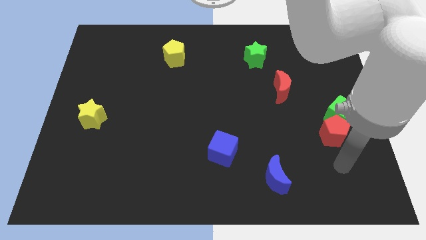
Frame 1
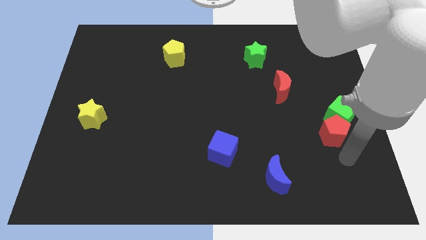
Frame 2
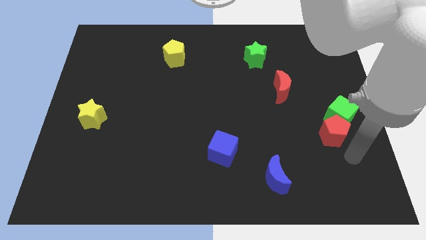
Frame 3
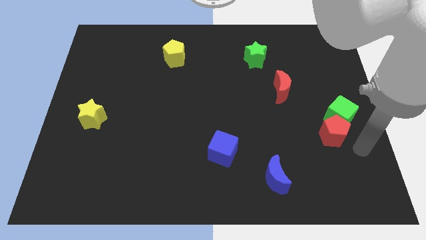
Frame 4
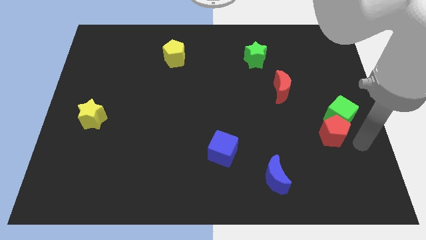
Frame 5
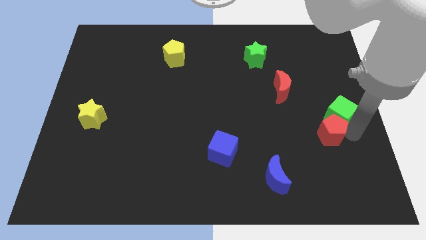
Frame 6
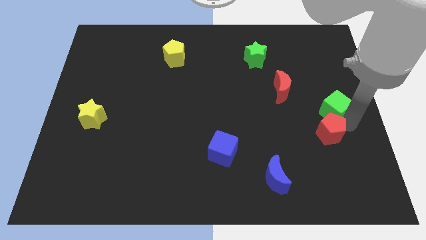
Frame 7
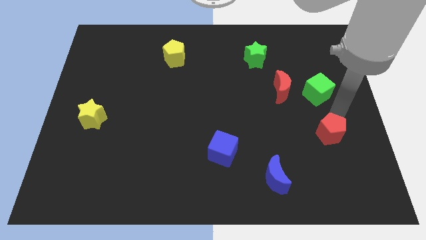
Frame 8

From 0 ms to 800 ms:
pull the red pentagon apart from the green cube

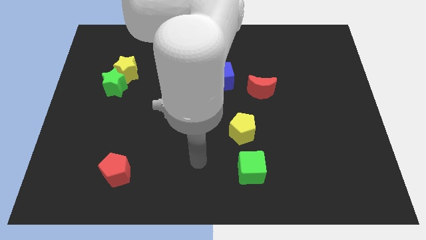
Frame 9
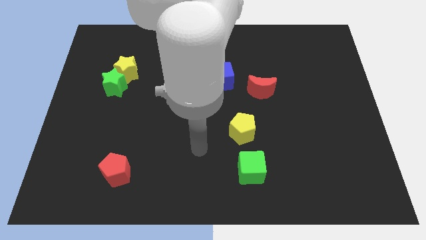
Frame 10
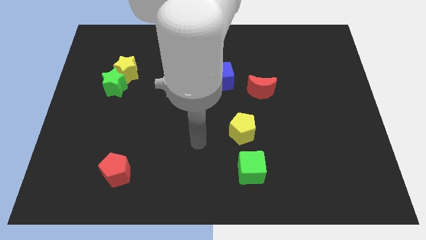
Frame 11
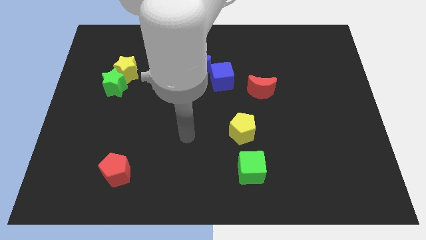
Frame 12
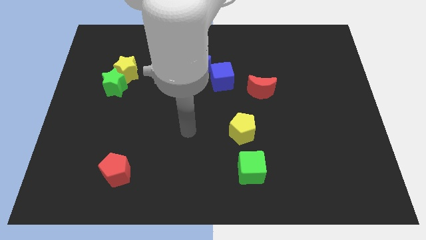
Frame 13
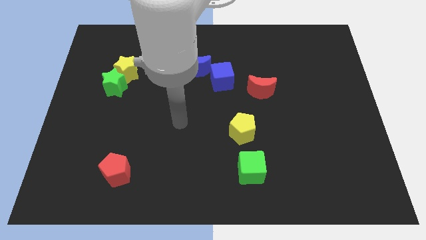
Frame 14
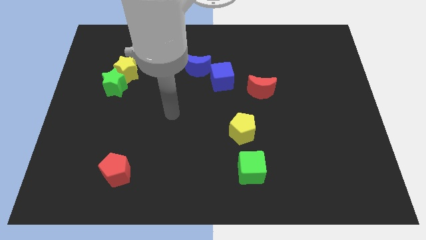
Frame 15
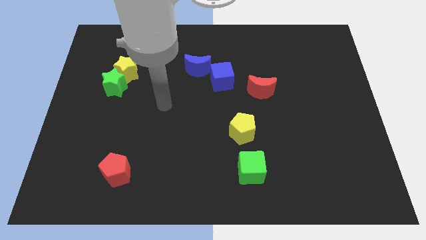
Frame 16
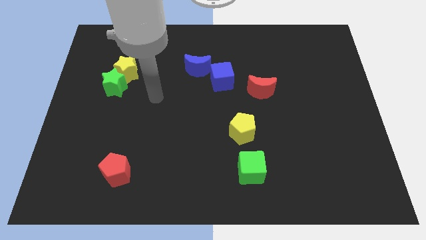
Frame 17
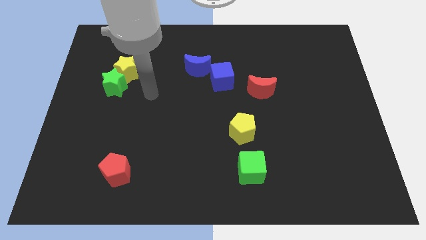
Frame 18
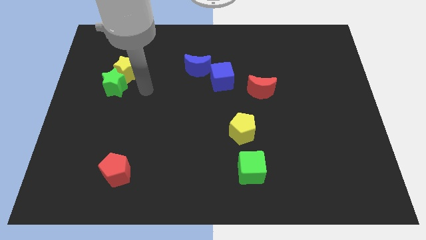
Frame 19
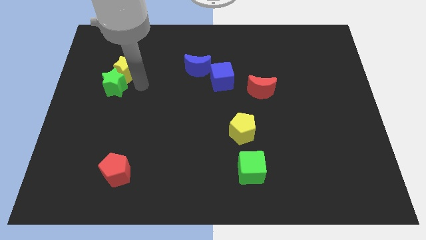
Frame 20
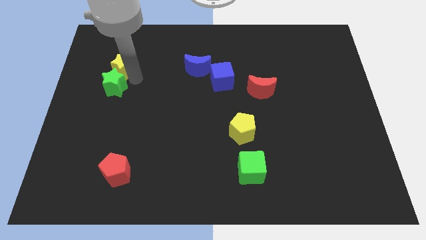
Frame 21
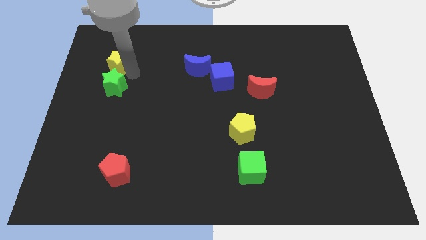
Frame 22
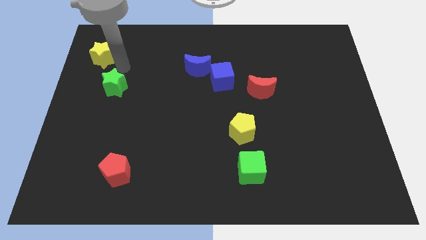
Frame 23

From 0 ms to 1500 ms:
separate the green star from the yellow star

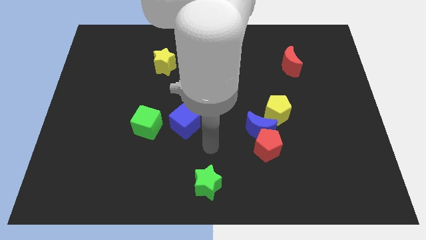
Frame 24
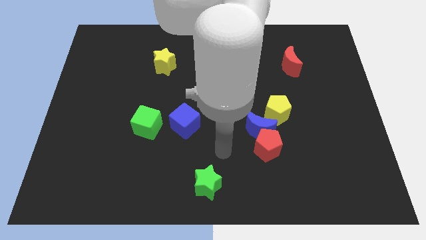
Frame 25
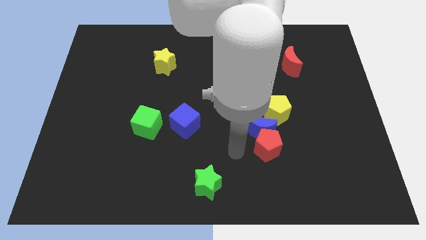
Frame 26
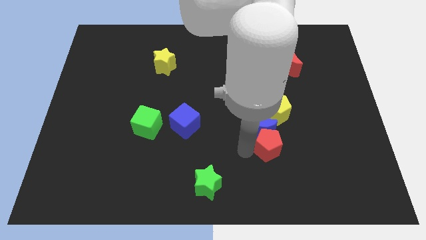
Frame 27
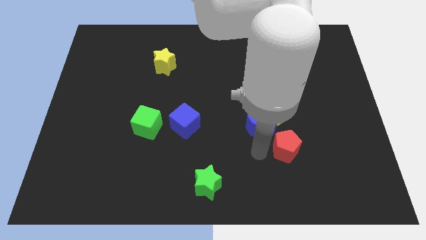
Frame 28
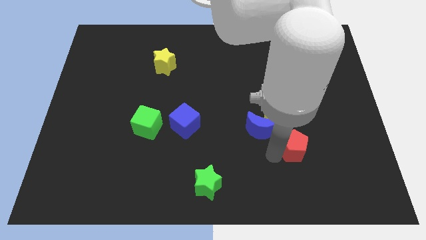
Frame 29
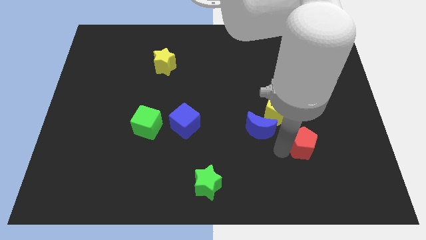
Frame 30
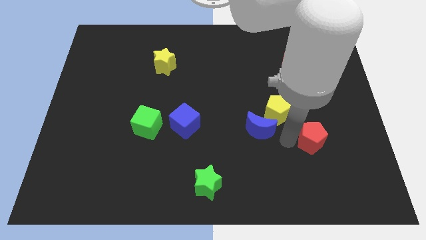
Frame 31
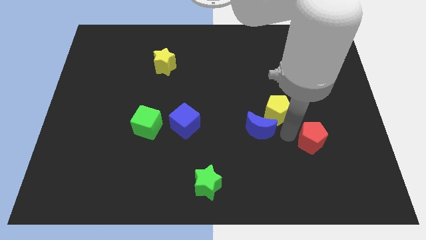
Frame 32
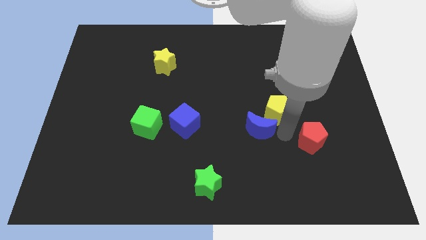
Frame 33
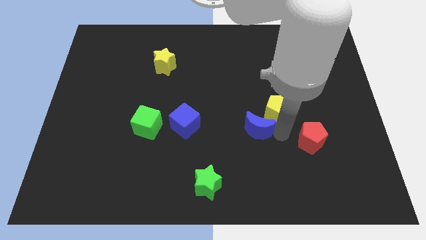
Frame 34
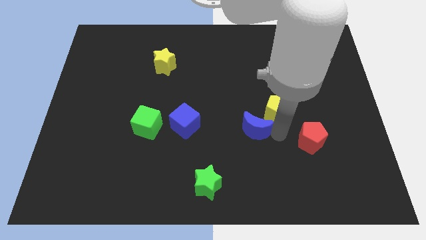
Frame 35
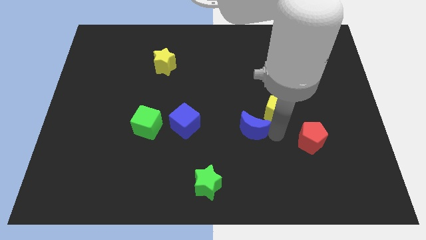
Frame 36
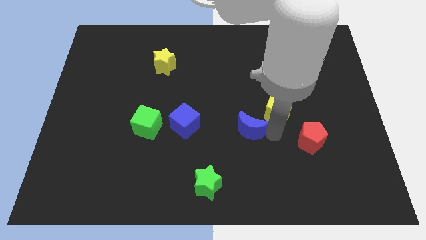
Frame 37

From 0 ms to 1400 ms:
pull the blue moon apart from the red pentagon and yellow pentagon

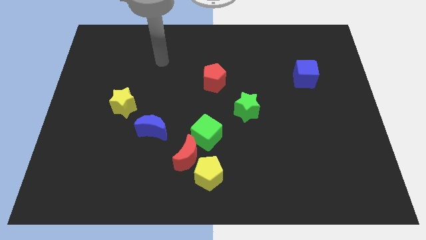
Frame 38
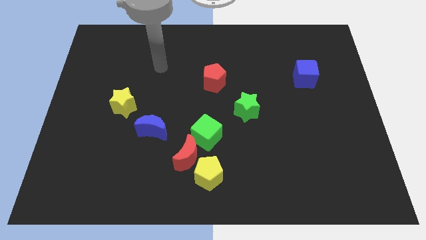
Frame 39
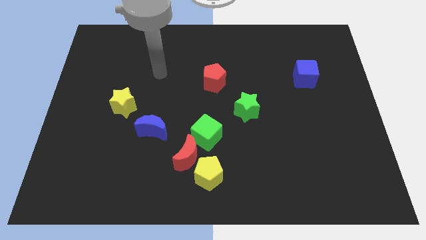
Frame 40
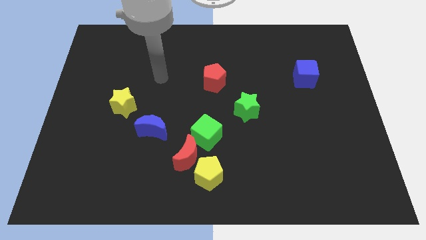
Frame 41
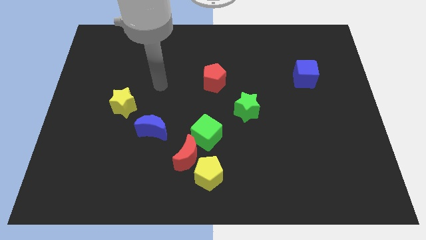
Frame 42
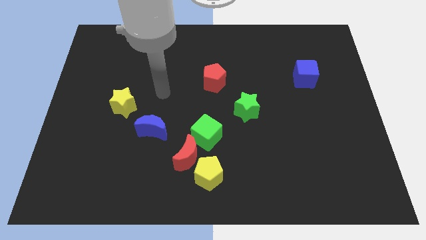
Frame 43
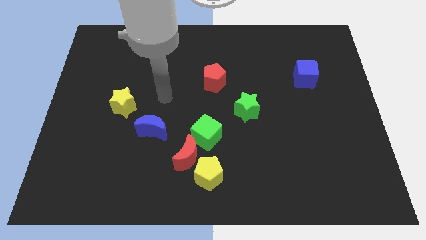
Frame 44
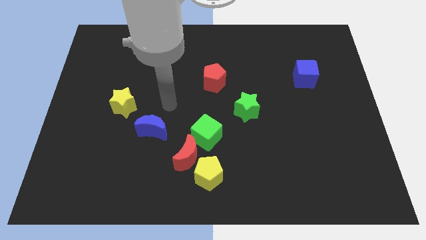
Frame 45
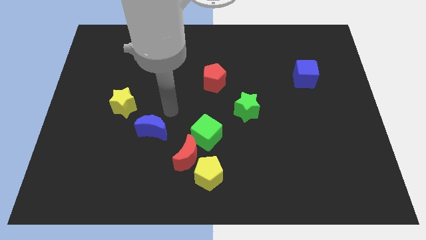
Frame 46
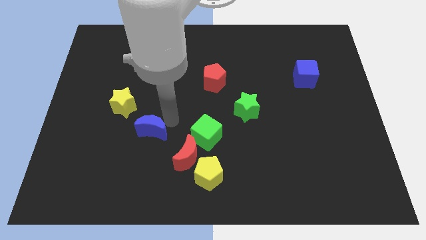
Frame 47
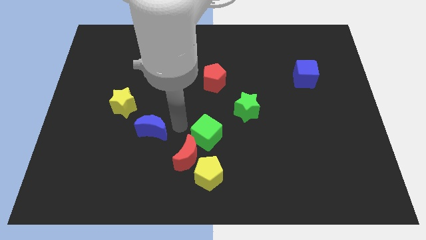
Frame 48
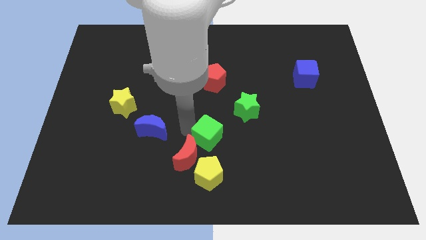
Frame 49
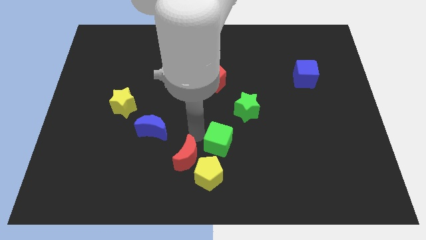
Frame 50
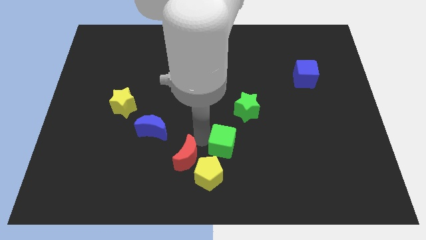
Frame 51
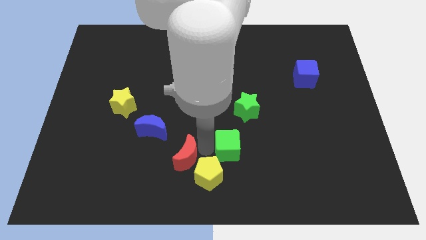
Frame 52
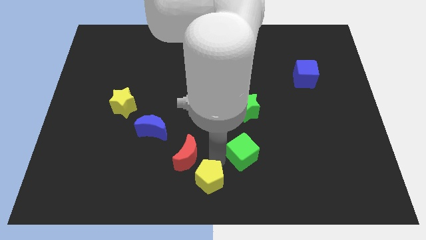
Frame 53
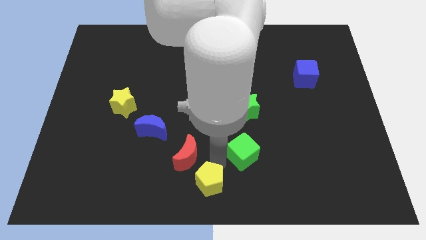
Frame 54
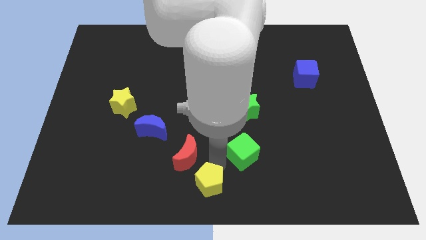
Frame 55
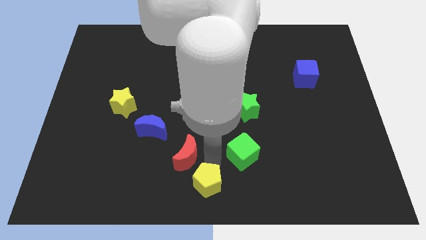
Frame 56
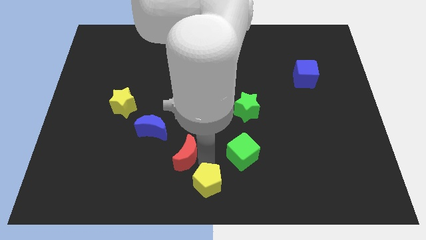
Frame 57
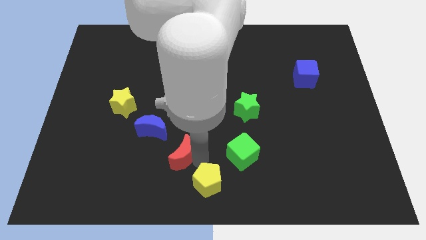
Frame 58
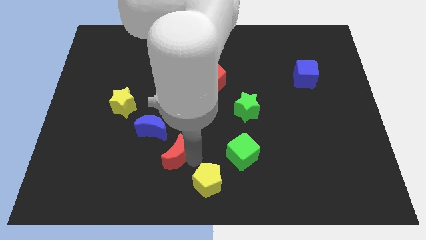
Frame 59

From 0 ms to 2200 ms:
separate the red moon from the yellow pentagon and green cube

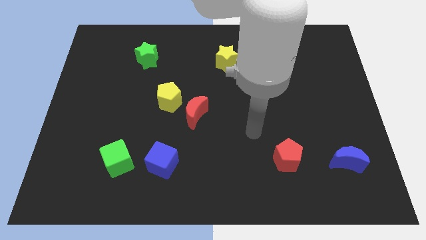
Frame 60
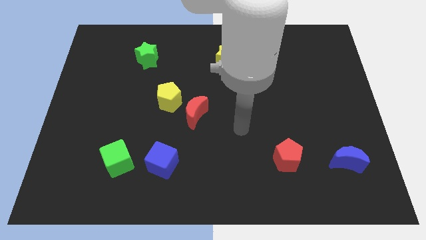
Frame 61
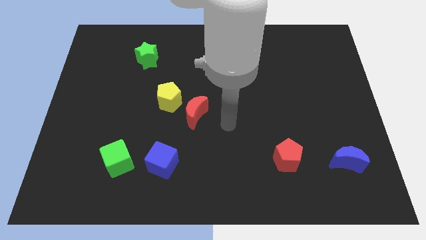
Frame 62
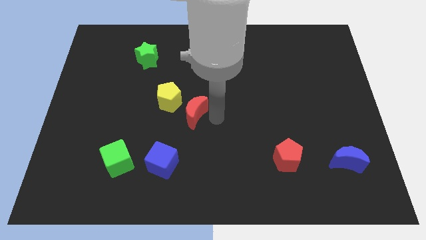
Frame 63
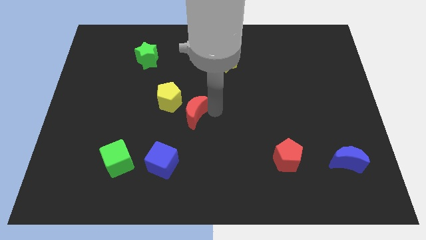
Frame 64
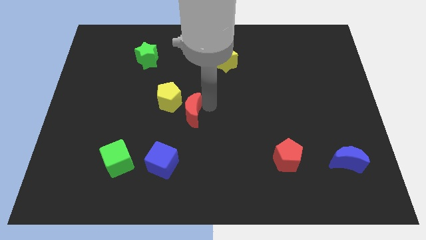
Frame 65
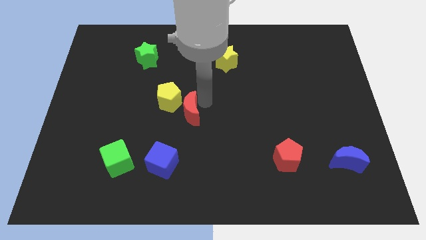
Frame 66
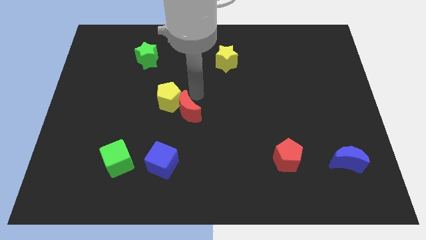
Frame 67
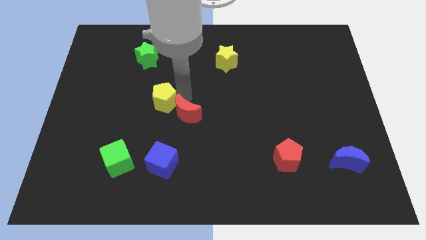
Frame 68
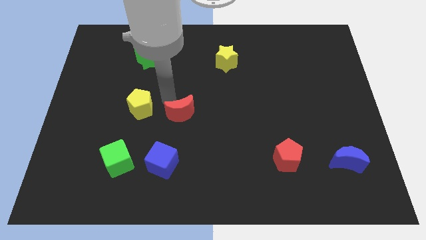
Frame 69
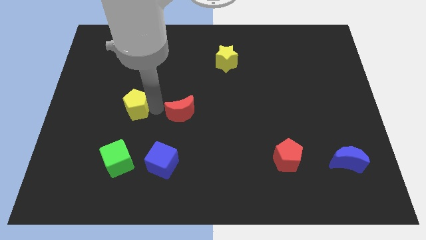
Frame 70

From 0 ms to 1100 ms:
separate the red moon from the yellow pentagon

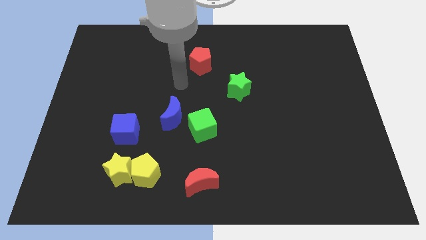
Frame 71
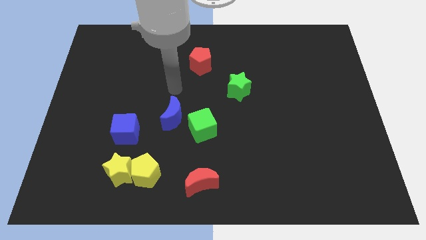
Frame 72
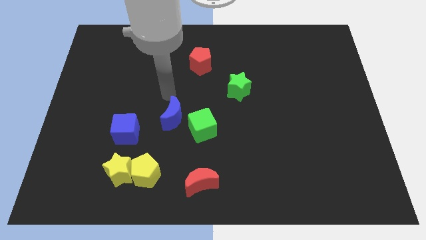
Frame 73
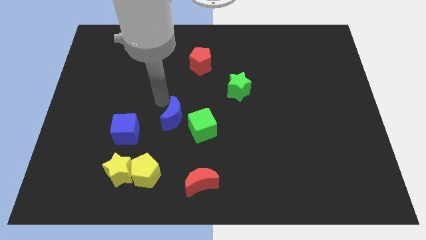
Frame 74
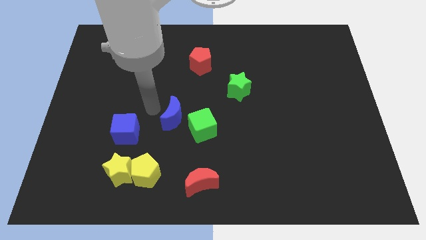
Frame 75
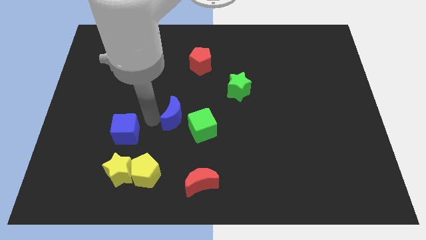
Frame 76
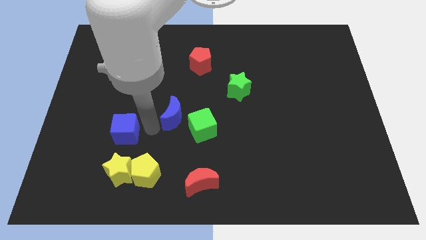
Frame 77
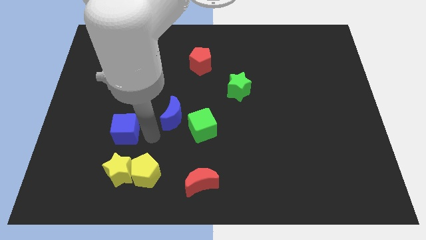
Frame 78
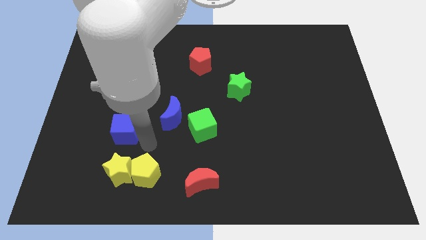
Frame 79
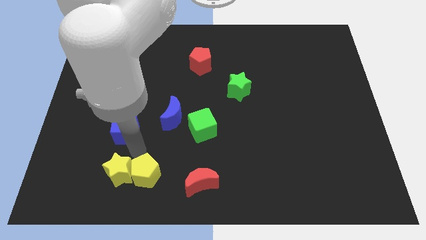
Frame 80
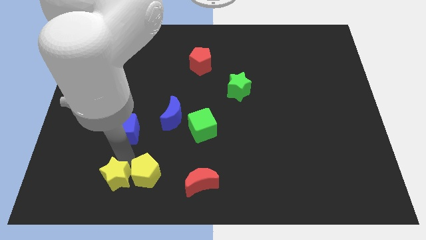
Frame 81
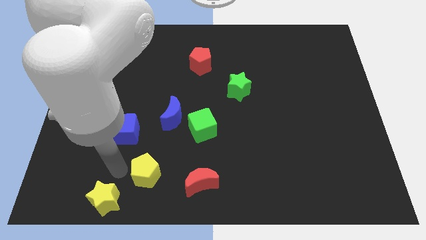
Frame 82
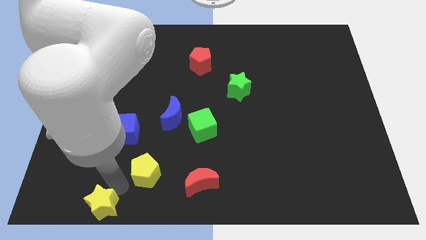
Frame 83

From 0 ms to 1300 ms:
pull the yellow pentagon apart from the yellow star

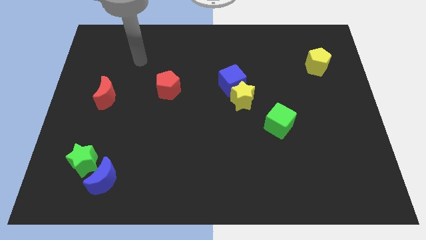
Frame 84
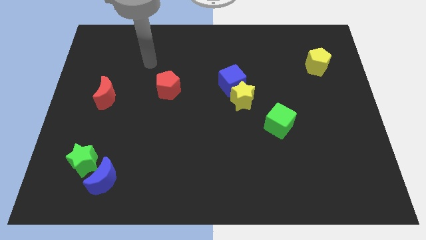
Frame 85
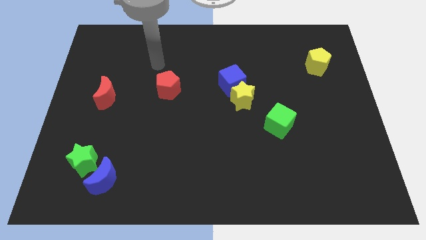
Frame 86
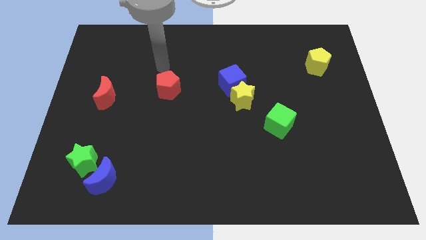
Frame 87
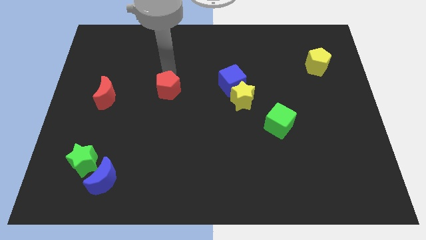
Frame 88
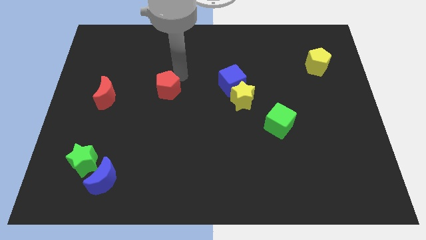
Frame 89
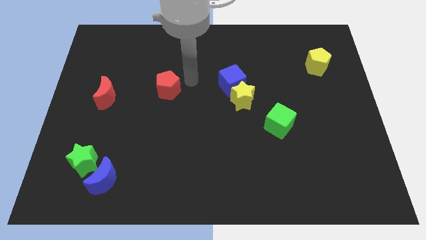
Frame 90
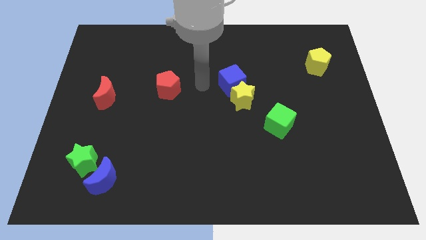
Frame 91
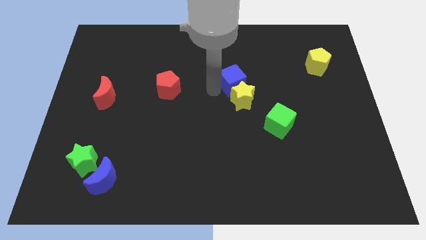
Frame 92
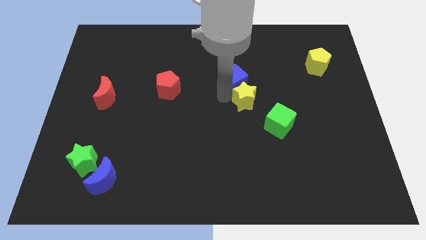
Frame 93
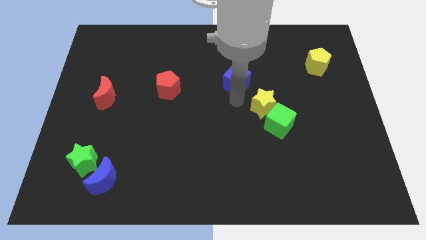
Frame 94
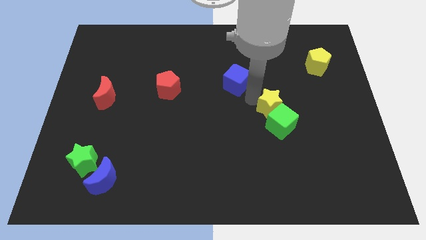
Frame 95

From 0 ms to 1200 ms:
separate the blue cube from the yellow star
